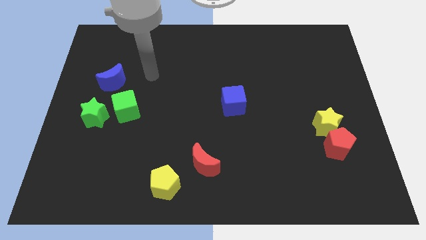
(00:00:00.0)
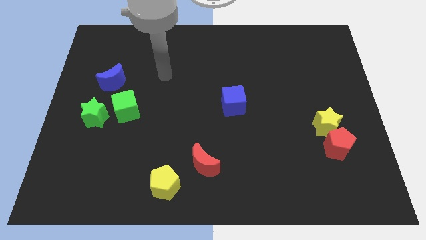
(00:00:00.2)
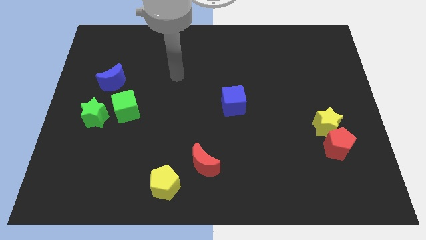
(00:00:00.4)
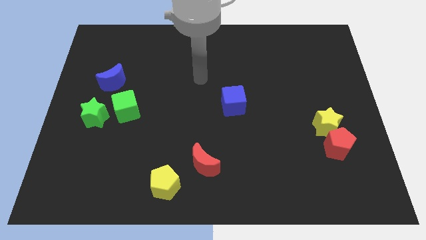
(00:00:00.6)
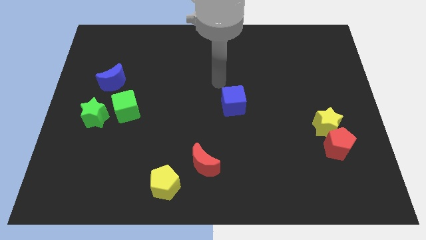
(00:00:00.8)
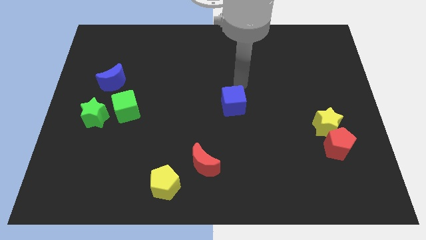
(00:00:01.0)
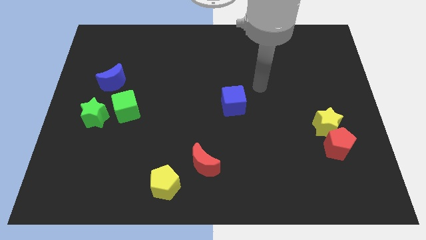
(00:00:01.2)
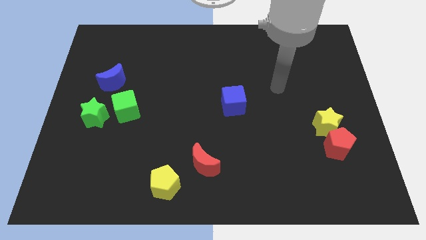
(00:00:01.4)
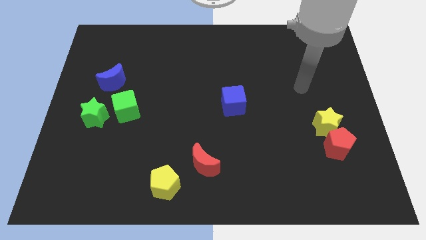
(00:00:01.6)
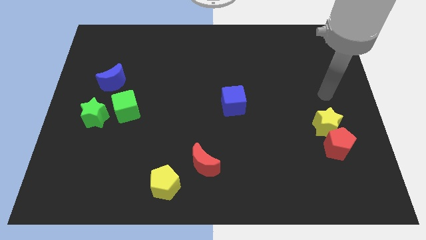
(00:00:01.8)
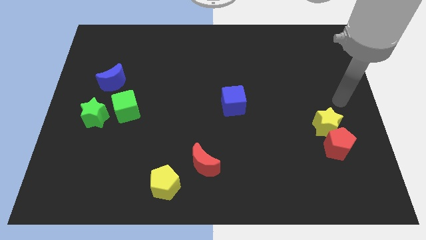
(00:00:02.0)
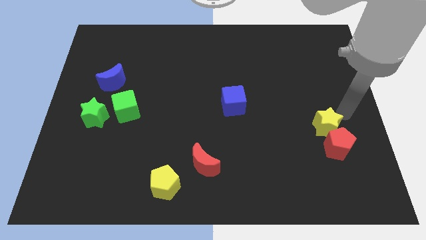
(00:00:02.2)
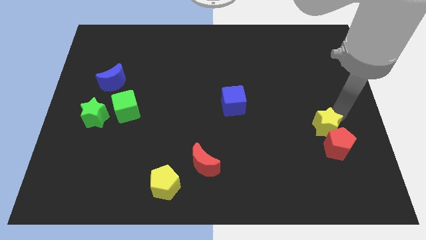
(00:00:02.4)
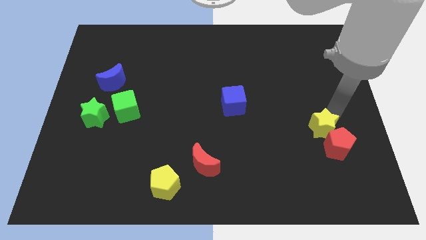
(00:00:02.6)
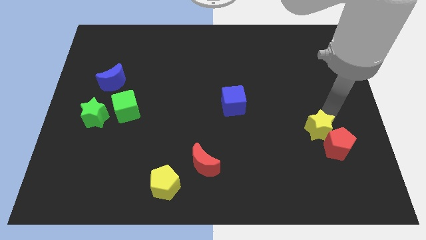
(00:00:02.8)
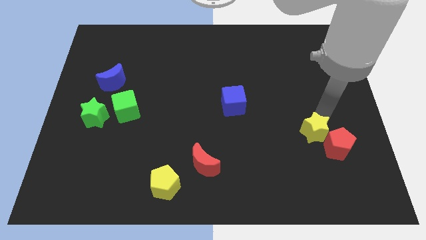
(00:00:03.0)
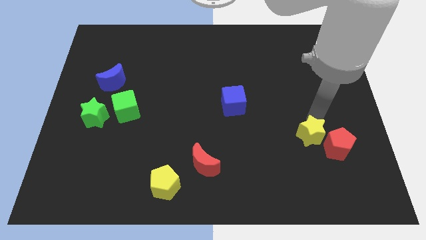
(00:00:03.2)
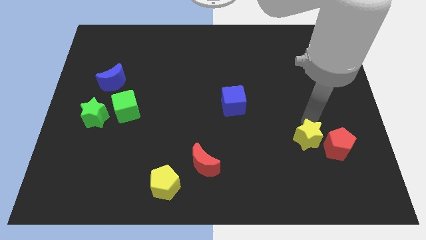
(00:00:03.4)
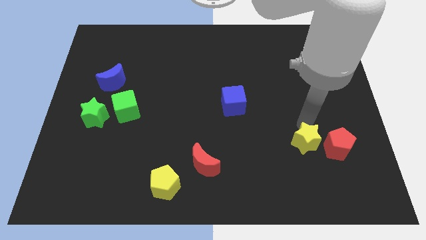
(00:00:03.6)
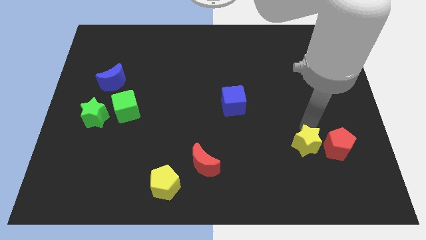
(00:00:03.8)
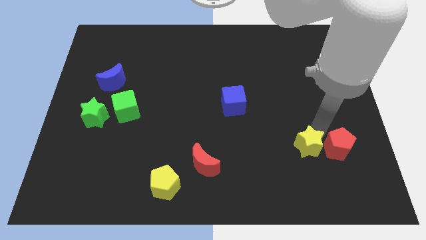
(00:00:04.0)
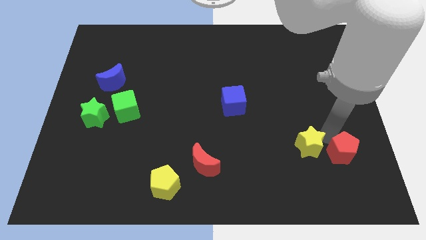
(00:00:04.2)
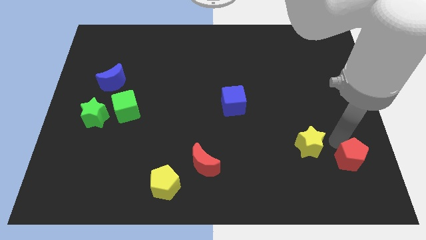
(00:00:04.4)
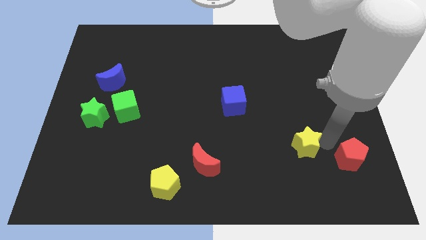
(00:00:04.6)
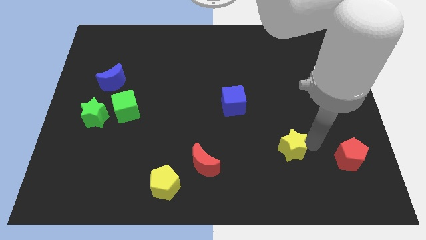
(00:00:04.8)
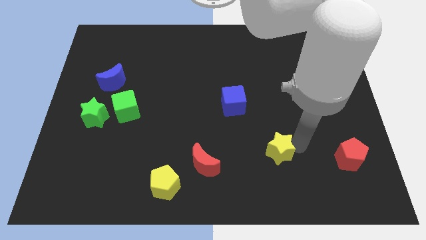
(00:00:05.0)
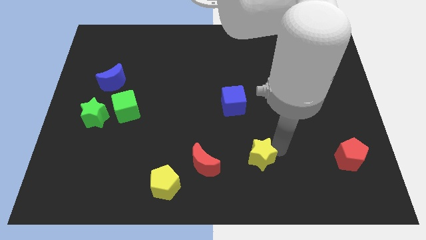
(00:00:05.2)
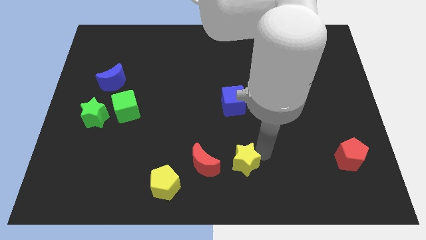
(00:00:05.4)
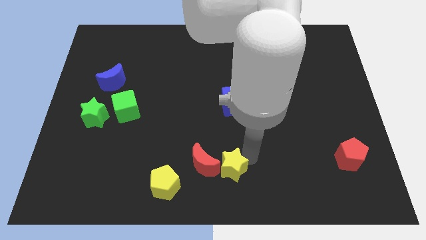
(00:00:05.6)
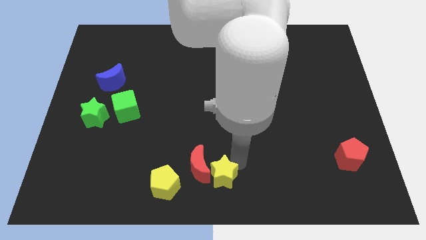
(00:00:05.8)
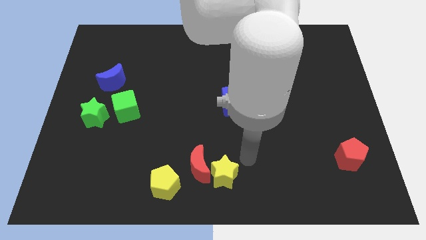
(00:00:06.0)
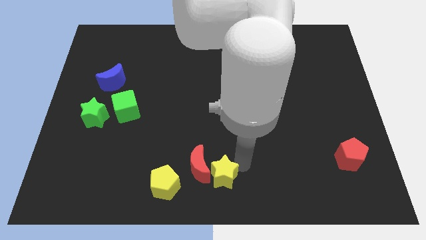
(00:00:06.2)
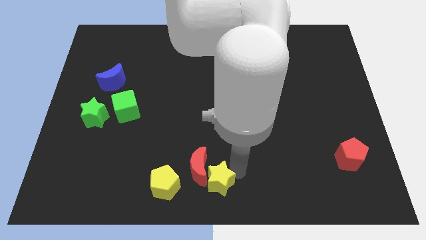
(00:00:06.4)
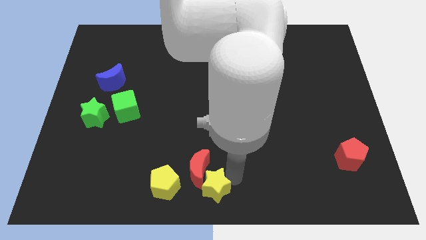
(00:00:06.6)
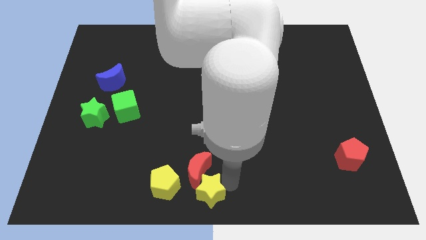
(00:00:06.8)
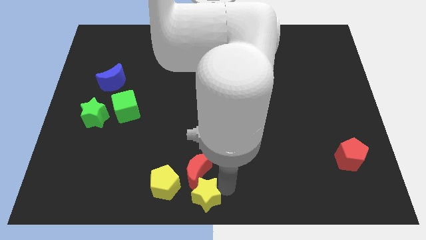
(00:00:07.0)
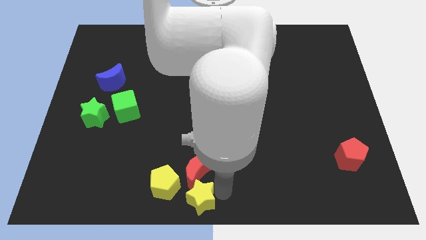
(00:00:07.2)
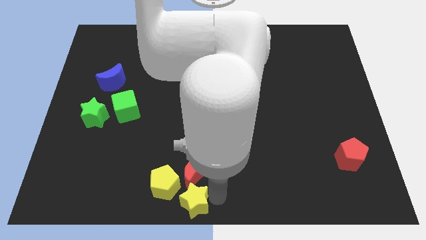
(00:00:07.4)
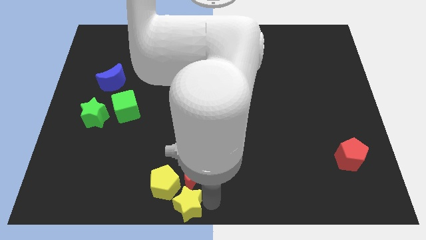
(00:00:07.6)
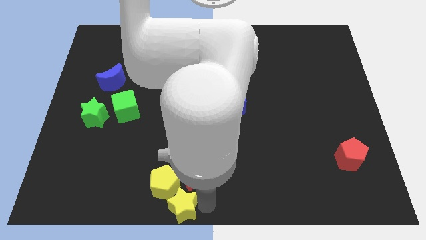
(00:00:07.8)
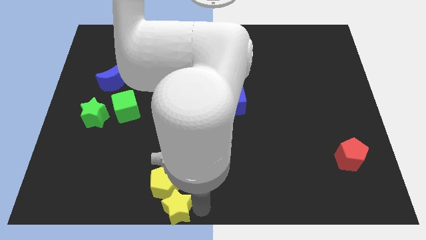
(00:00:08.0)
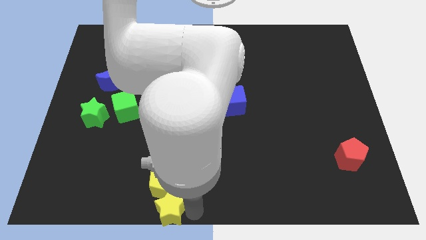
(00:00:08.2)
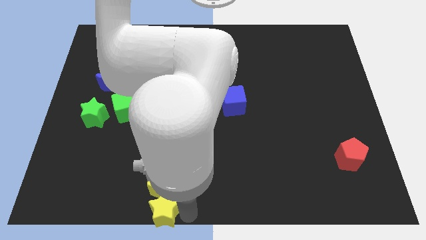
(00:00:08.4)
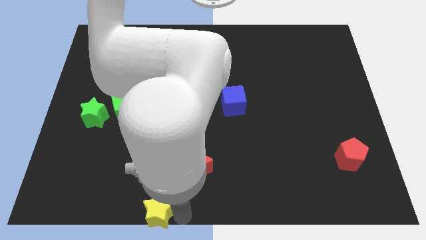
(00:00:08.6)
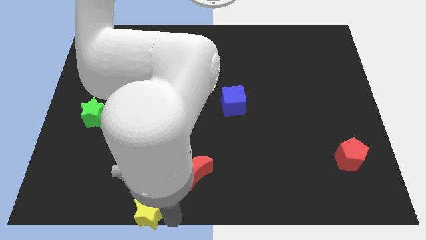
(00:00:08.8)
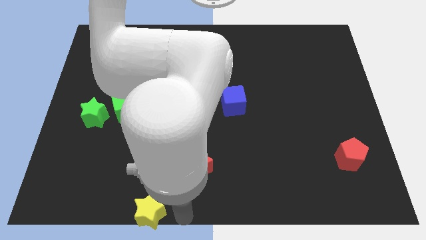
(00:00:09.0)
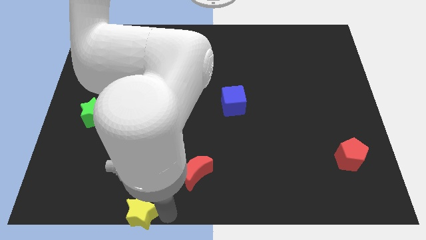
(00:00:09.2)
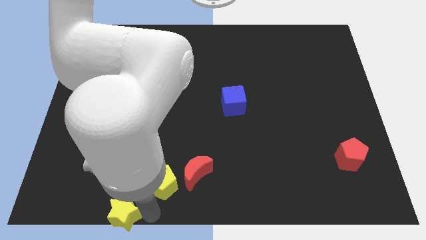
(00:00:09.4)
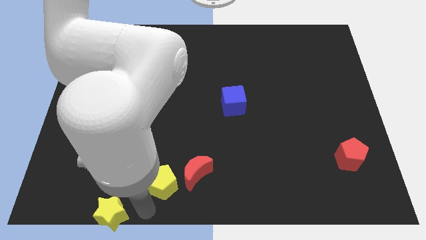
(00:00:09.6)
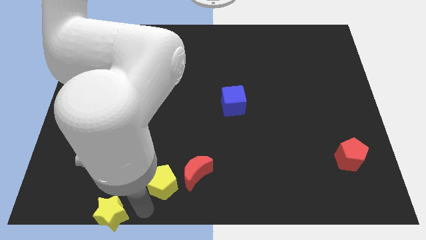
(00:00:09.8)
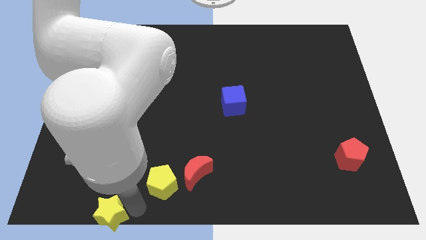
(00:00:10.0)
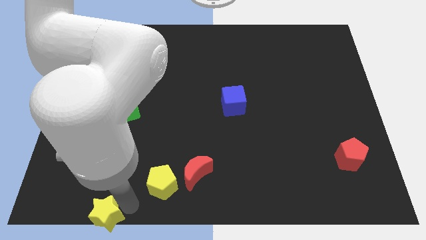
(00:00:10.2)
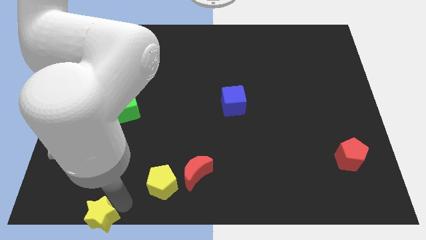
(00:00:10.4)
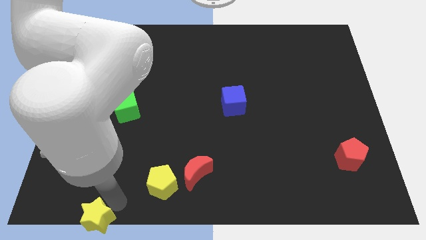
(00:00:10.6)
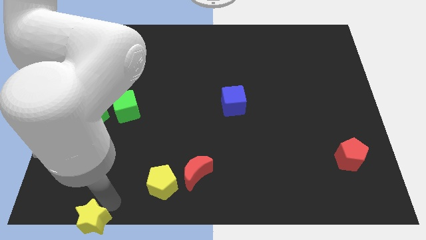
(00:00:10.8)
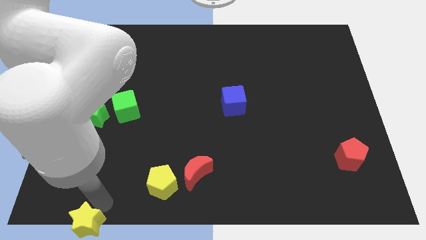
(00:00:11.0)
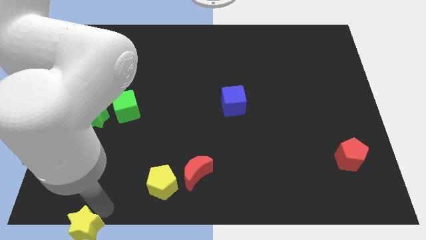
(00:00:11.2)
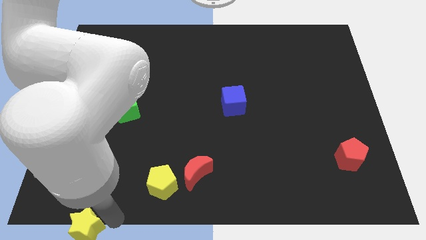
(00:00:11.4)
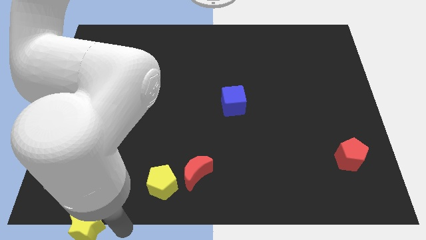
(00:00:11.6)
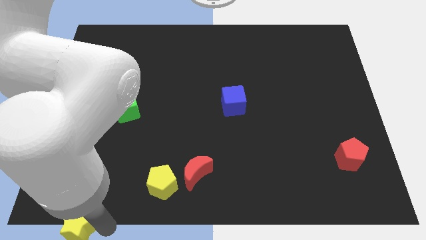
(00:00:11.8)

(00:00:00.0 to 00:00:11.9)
put the yellow star to the bottom left corner

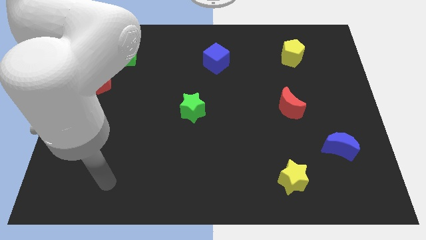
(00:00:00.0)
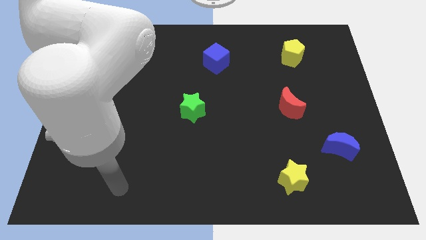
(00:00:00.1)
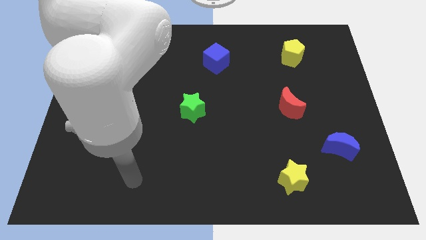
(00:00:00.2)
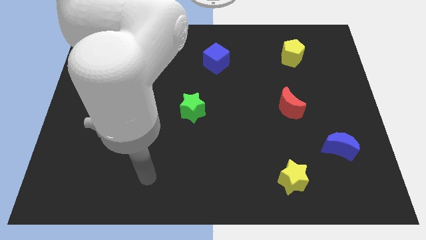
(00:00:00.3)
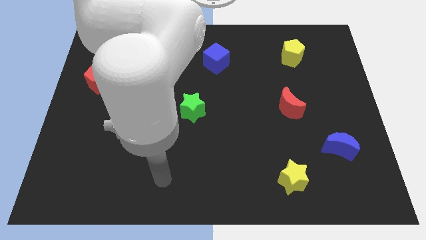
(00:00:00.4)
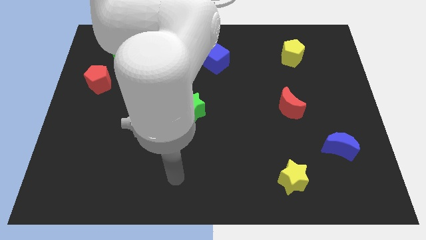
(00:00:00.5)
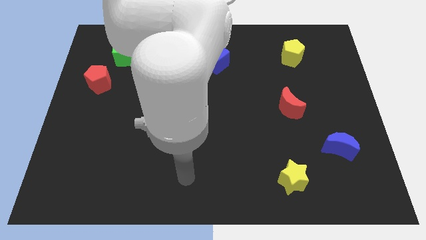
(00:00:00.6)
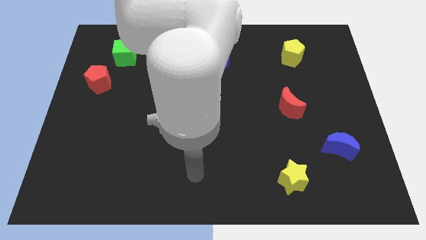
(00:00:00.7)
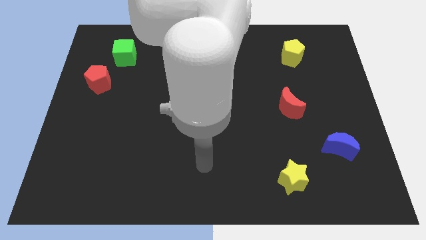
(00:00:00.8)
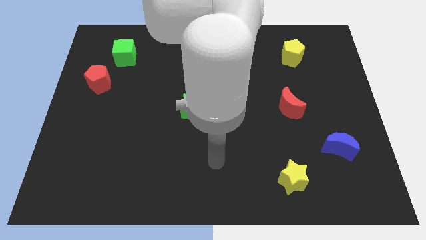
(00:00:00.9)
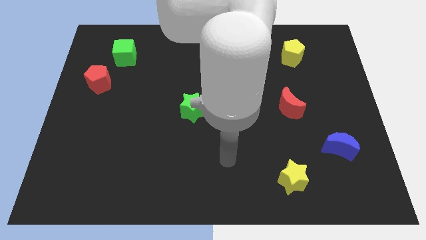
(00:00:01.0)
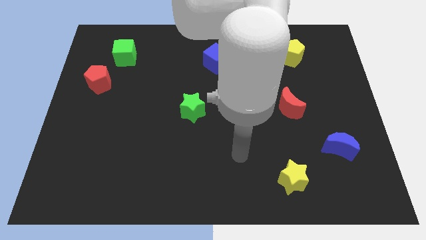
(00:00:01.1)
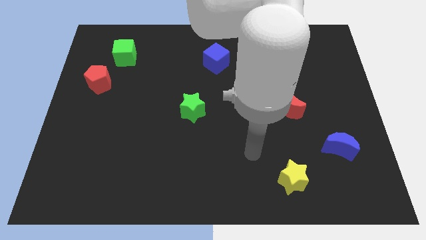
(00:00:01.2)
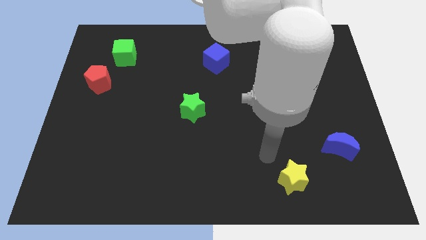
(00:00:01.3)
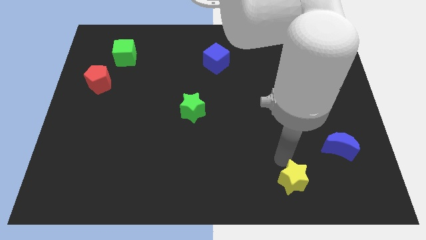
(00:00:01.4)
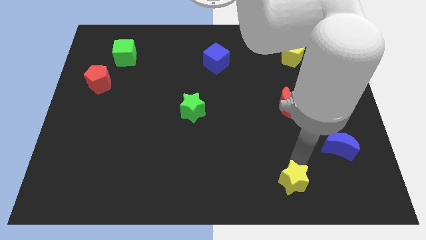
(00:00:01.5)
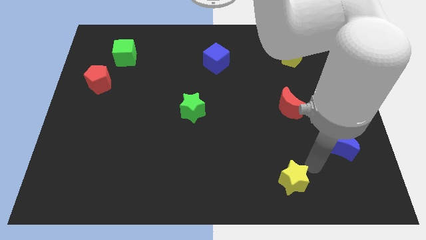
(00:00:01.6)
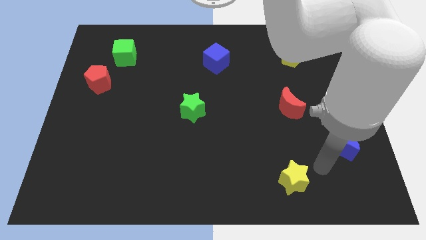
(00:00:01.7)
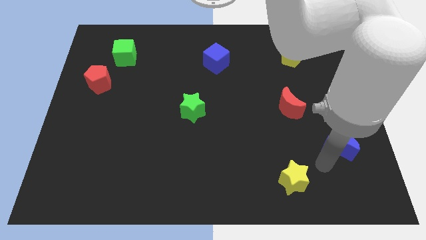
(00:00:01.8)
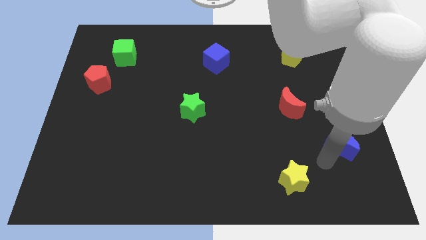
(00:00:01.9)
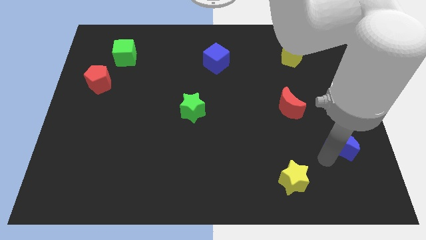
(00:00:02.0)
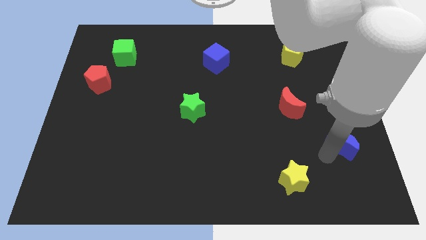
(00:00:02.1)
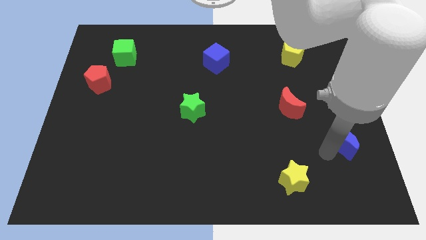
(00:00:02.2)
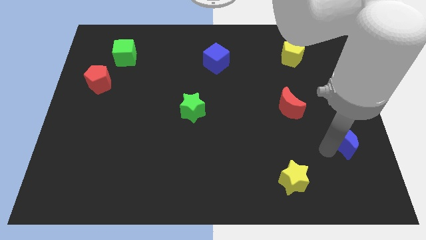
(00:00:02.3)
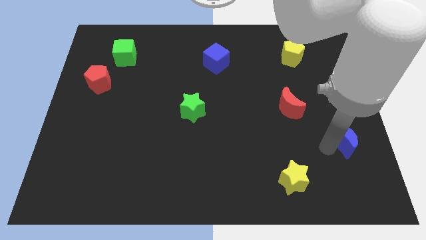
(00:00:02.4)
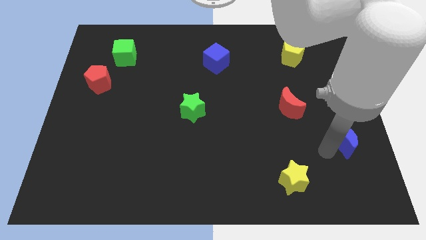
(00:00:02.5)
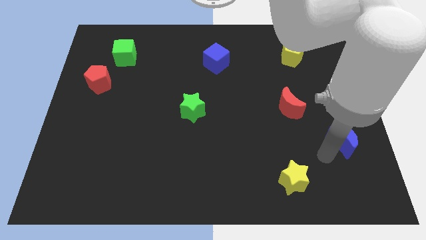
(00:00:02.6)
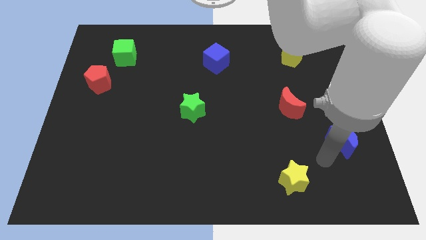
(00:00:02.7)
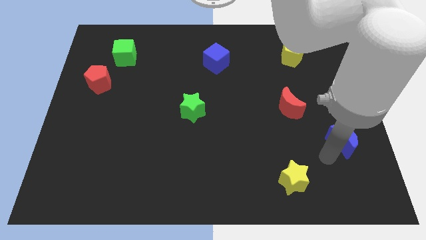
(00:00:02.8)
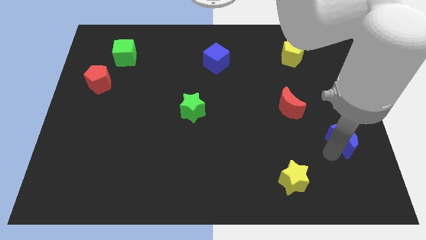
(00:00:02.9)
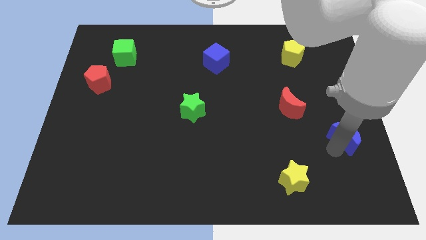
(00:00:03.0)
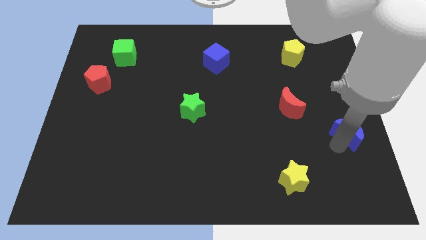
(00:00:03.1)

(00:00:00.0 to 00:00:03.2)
slide the blue moon to the right side of the board
